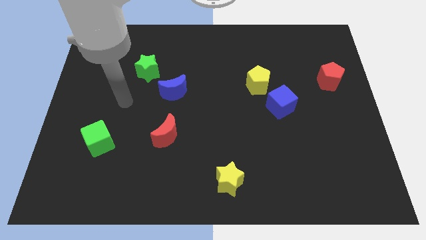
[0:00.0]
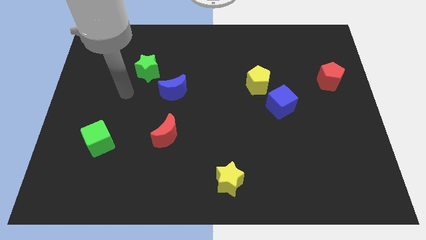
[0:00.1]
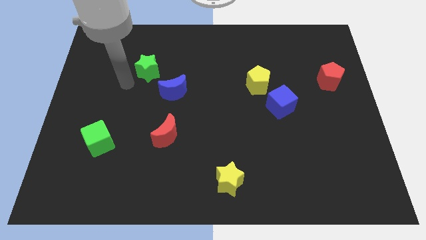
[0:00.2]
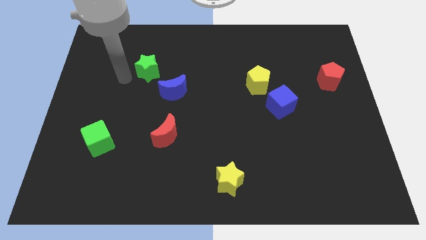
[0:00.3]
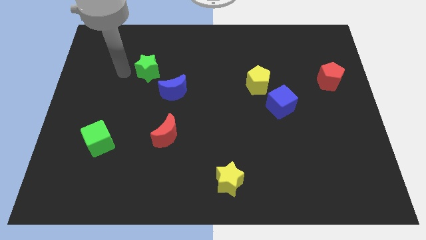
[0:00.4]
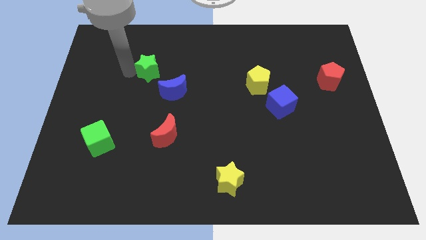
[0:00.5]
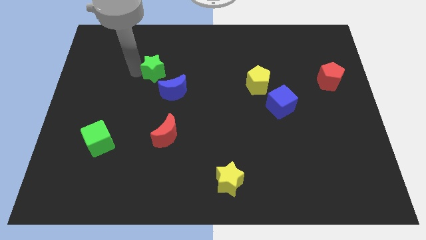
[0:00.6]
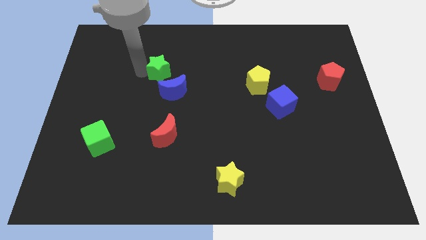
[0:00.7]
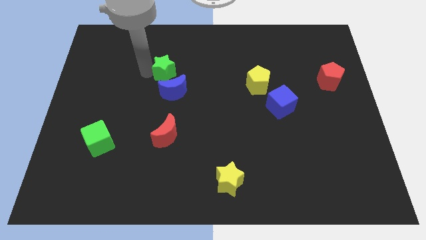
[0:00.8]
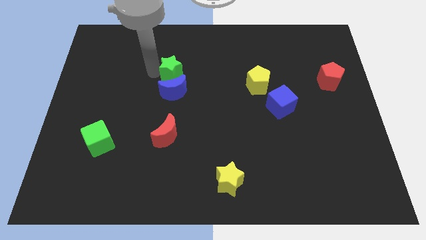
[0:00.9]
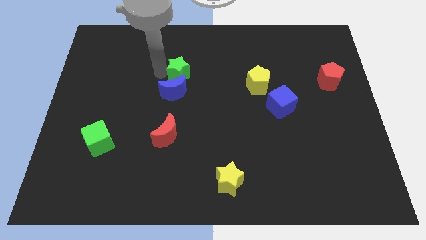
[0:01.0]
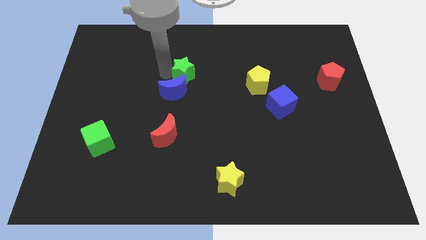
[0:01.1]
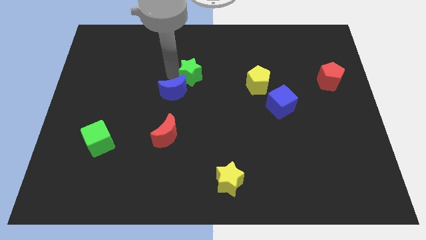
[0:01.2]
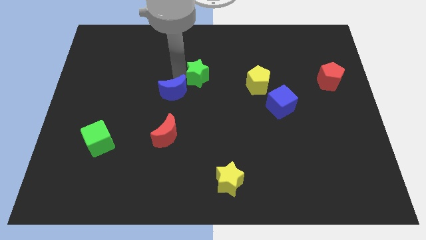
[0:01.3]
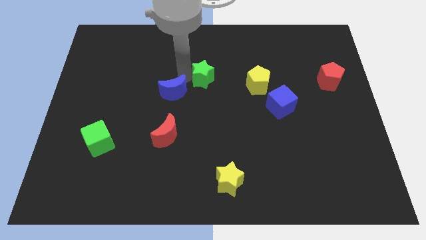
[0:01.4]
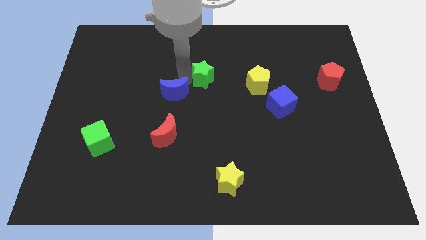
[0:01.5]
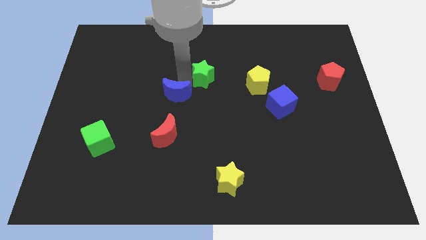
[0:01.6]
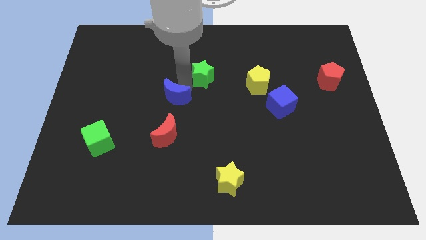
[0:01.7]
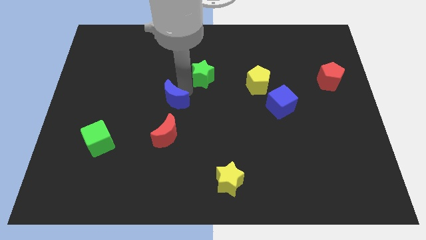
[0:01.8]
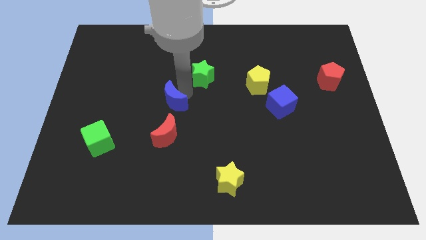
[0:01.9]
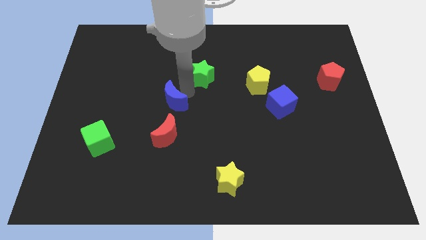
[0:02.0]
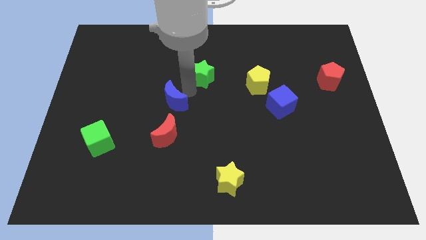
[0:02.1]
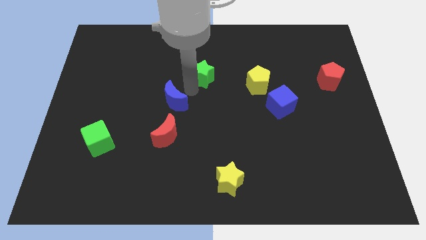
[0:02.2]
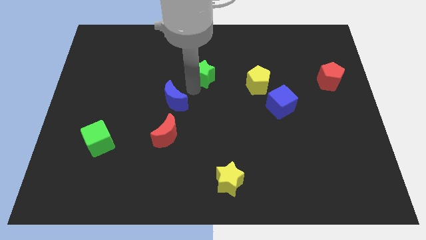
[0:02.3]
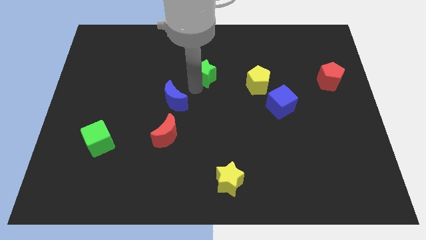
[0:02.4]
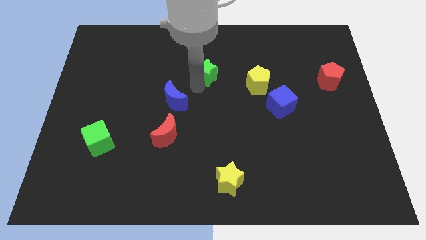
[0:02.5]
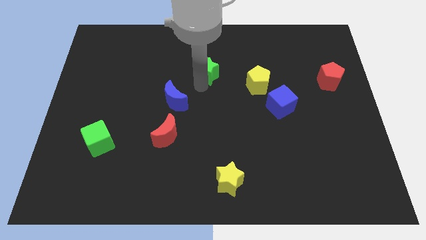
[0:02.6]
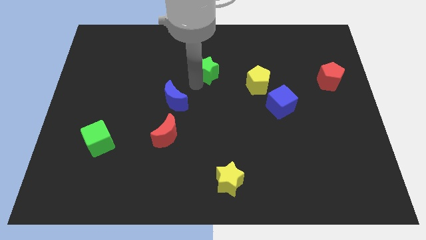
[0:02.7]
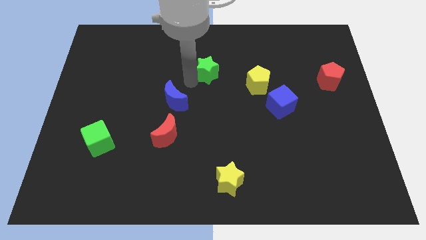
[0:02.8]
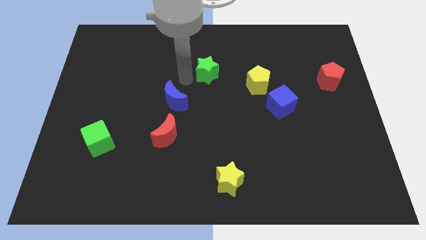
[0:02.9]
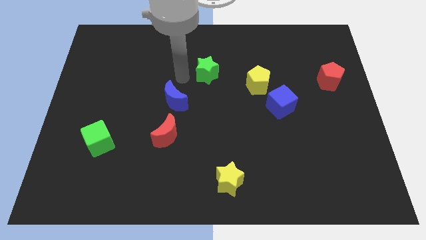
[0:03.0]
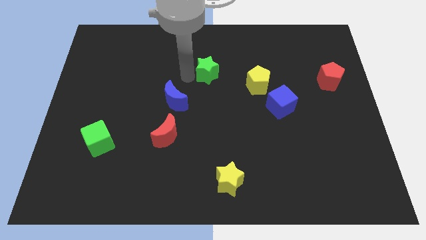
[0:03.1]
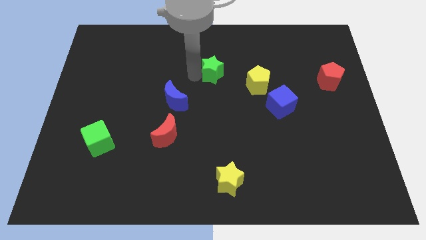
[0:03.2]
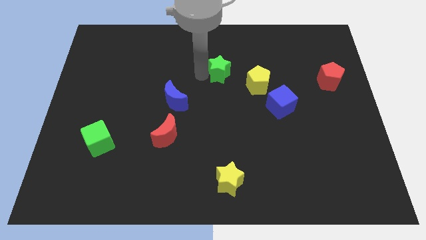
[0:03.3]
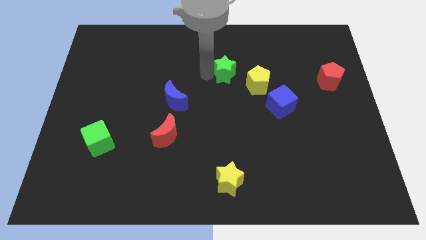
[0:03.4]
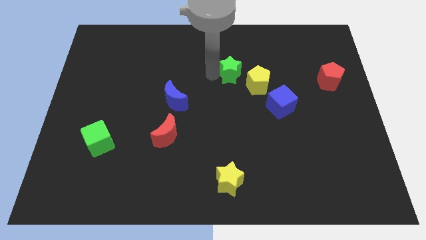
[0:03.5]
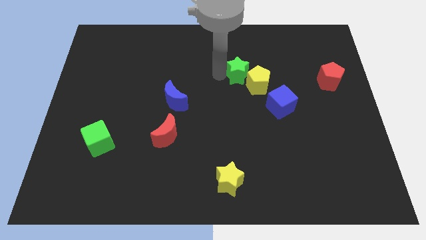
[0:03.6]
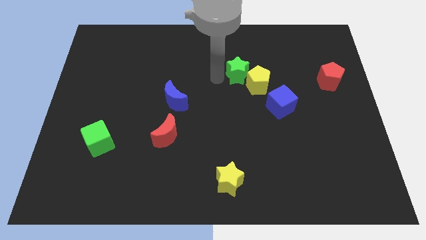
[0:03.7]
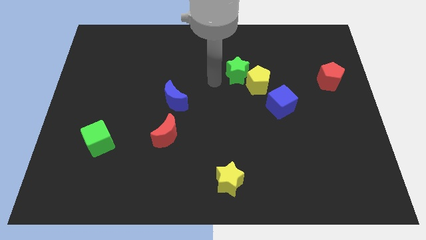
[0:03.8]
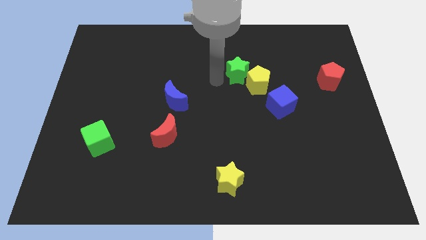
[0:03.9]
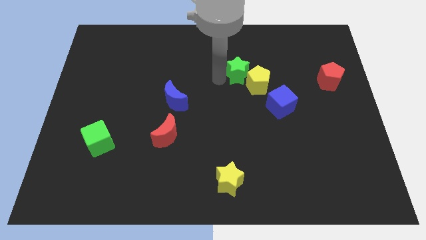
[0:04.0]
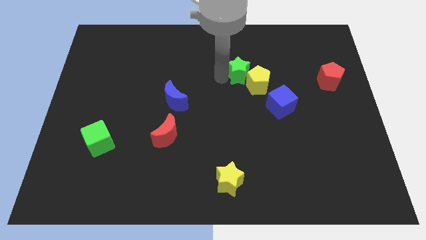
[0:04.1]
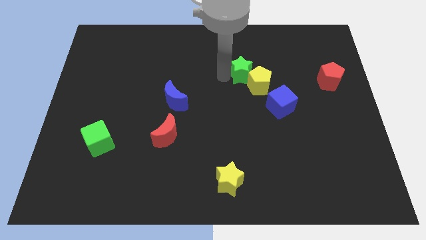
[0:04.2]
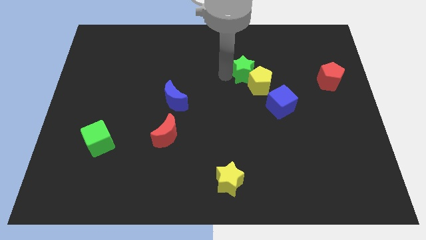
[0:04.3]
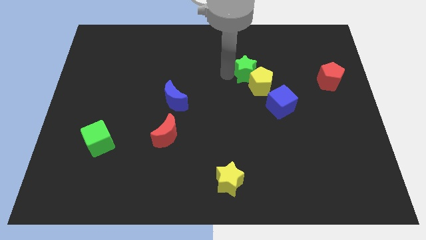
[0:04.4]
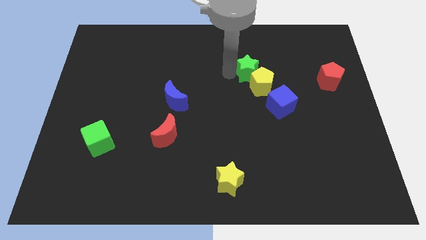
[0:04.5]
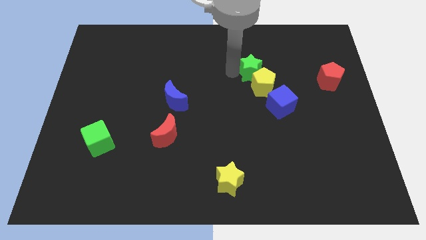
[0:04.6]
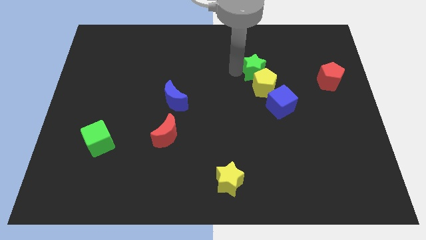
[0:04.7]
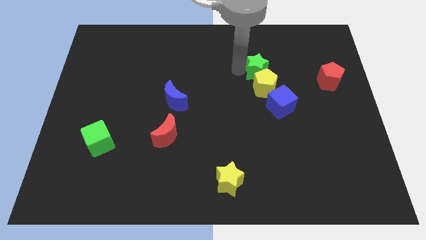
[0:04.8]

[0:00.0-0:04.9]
slide the green star to the top right side of the yellow pentagon

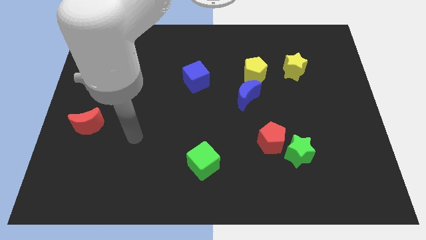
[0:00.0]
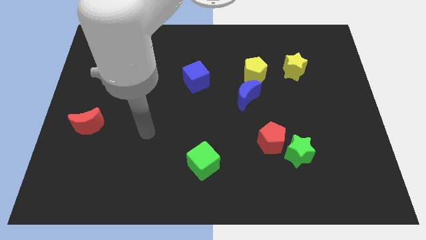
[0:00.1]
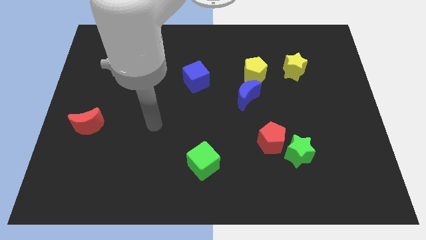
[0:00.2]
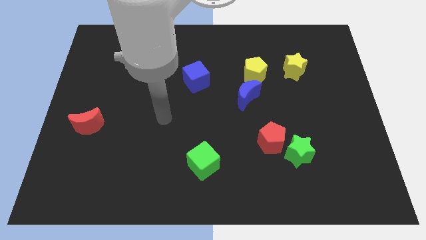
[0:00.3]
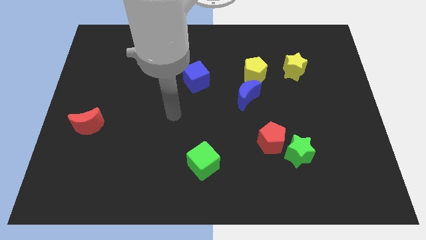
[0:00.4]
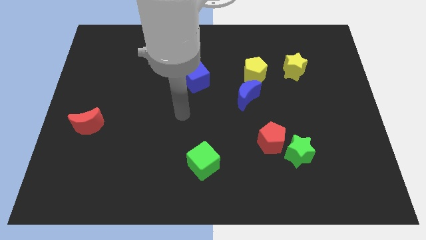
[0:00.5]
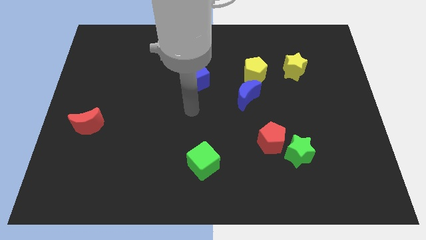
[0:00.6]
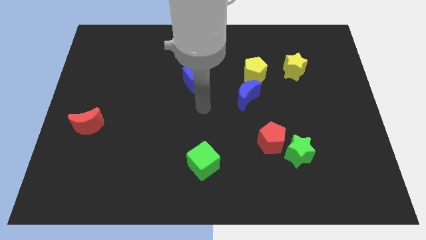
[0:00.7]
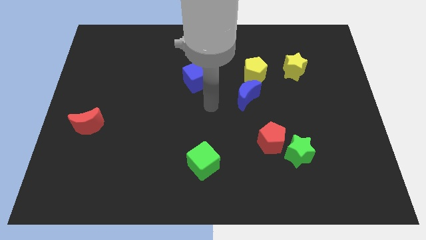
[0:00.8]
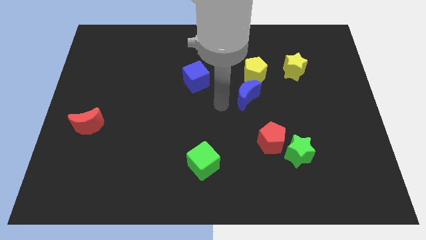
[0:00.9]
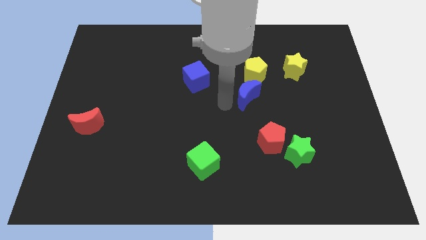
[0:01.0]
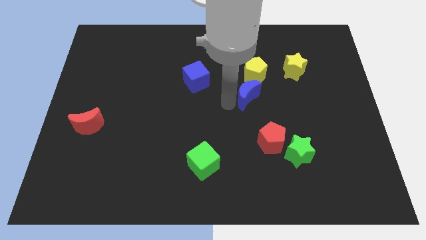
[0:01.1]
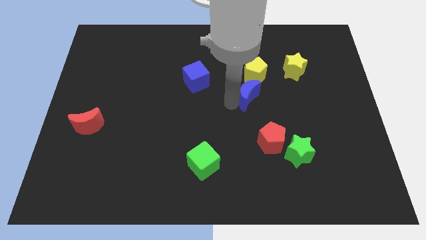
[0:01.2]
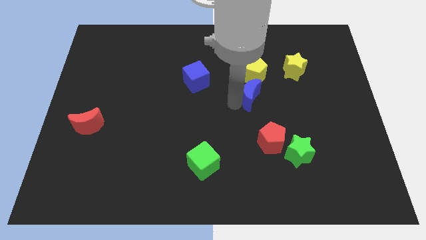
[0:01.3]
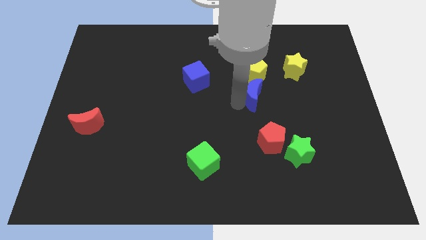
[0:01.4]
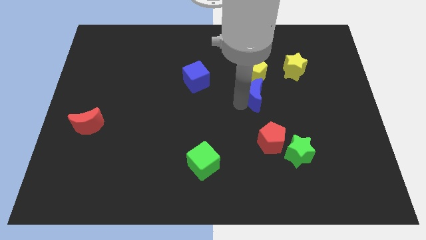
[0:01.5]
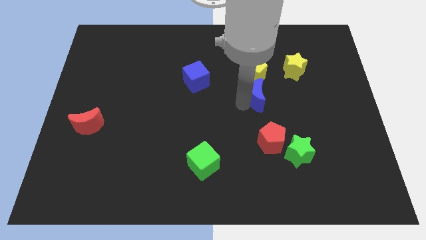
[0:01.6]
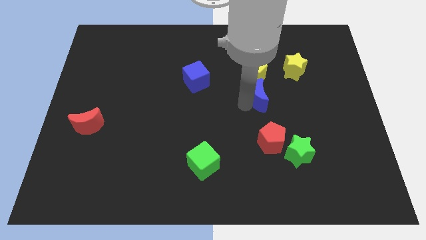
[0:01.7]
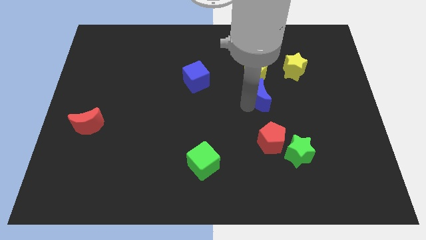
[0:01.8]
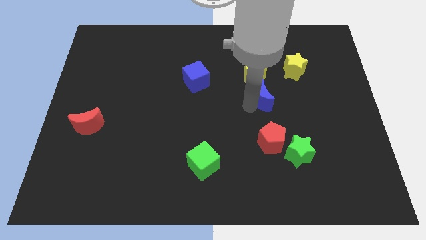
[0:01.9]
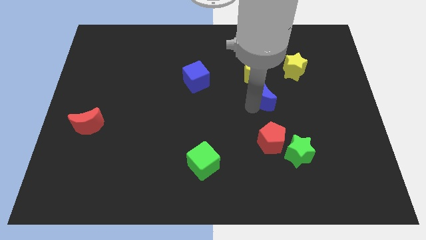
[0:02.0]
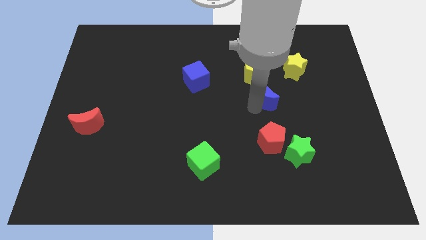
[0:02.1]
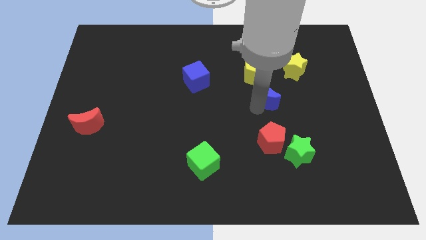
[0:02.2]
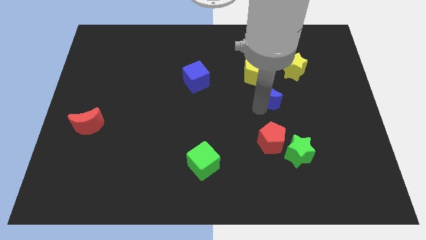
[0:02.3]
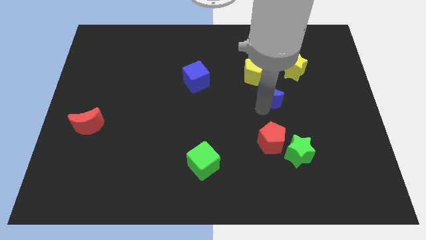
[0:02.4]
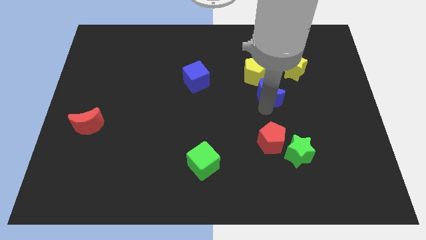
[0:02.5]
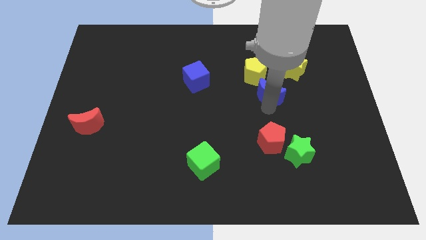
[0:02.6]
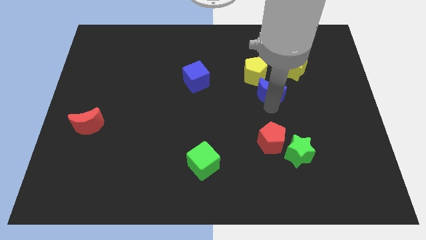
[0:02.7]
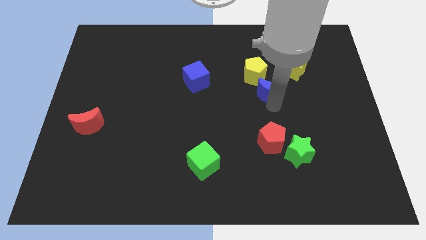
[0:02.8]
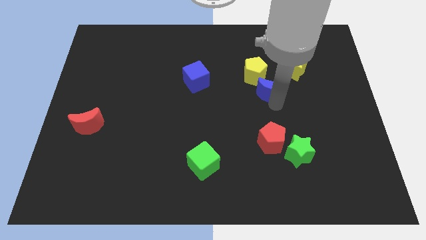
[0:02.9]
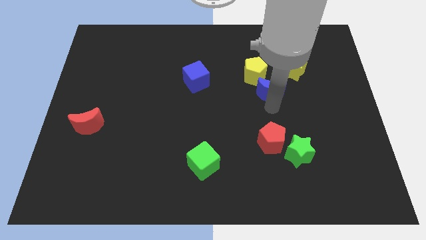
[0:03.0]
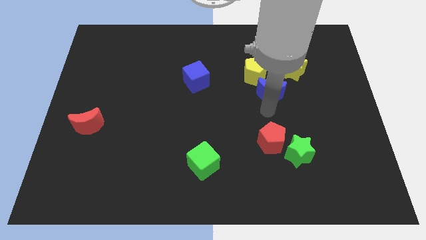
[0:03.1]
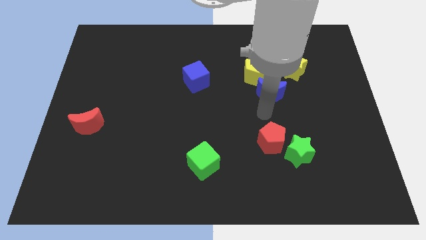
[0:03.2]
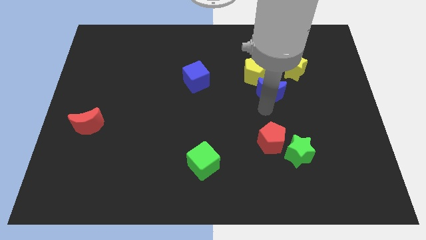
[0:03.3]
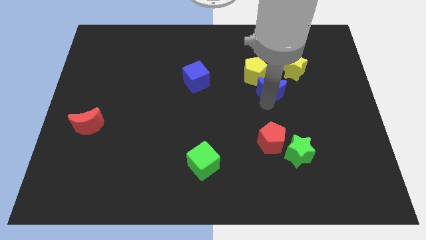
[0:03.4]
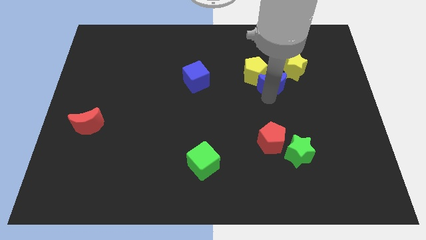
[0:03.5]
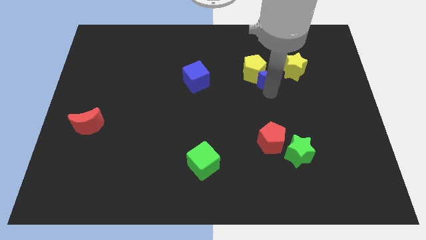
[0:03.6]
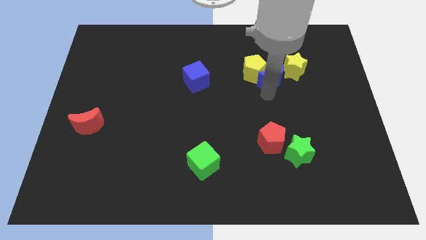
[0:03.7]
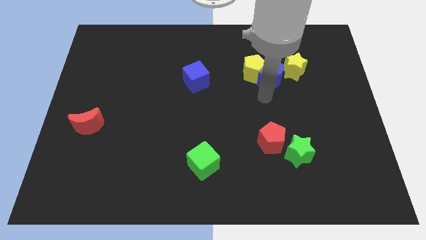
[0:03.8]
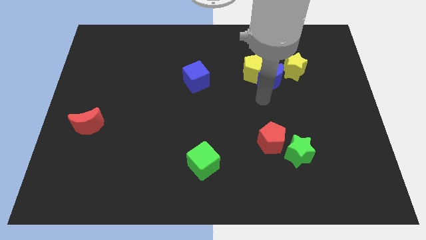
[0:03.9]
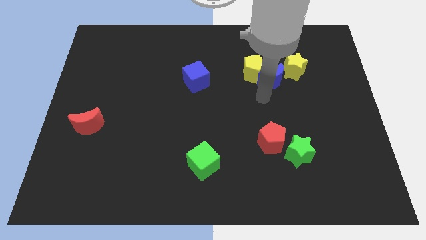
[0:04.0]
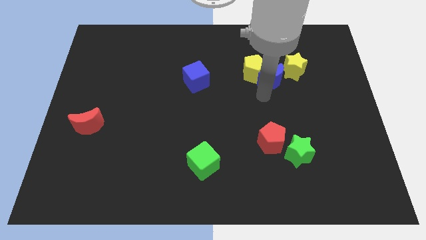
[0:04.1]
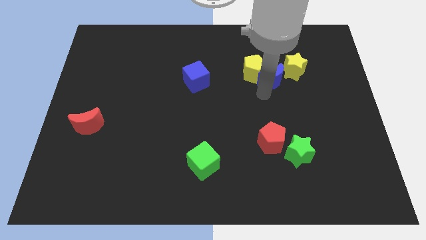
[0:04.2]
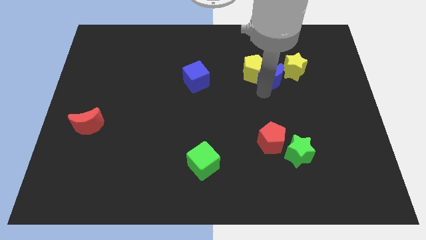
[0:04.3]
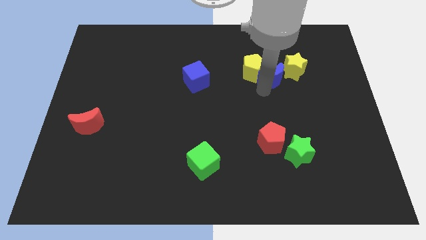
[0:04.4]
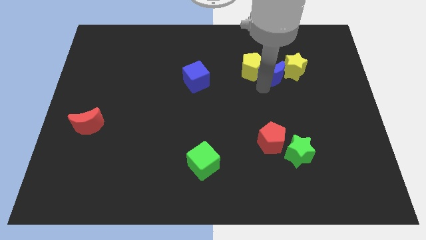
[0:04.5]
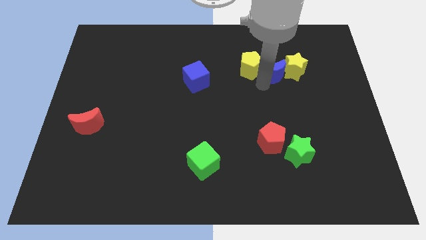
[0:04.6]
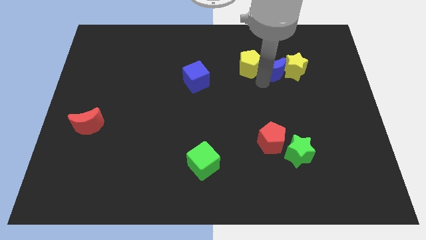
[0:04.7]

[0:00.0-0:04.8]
put the blue moon to the top left side of the yellow star
